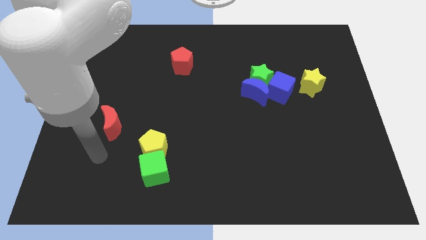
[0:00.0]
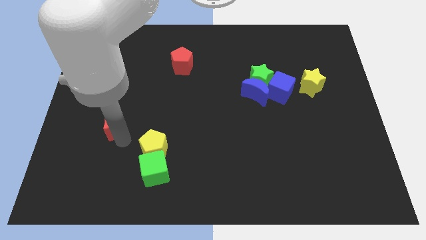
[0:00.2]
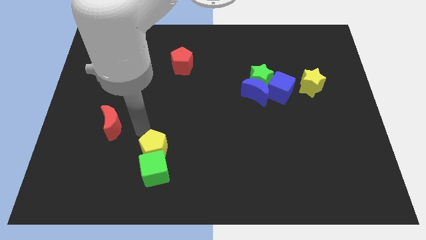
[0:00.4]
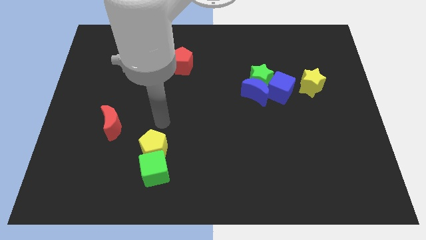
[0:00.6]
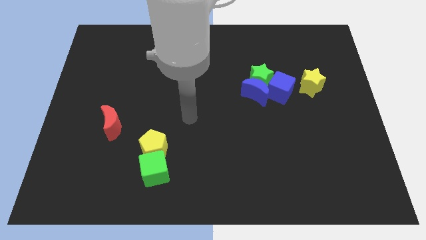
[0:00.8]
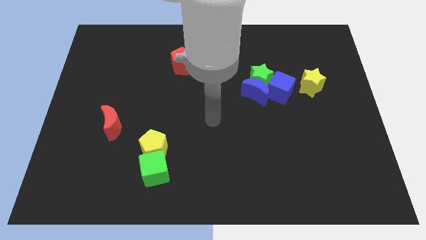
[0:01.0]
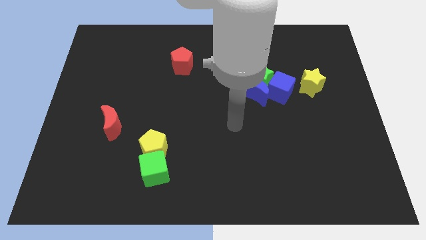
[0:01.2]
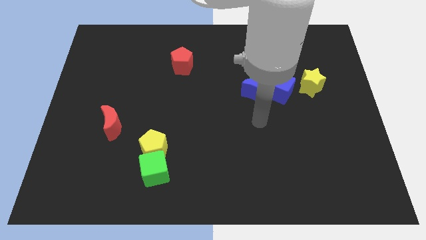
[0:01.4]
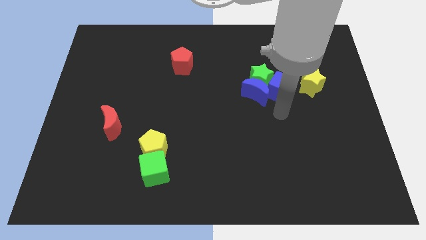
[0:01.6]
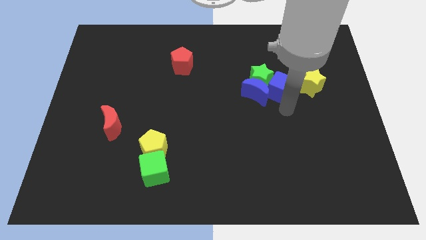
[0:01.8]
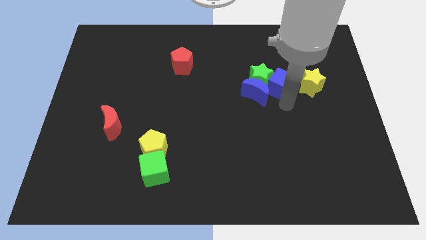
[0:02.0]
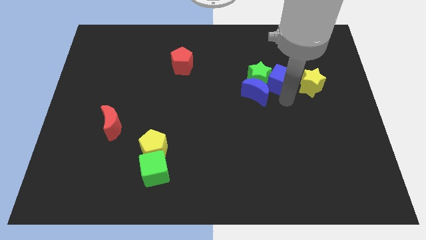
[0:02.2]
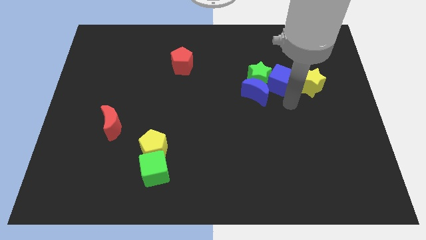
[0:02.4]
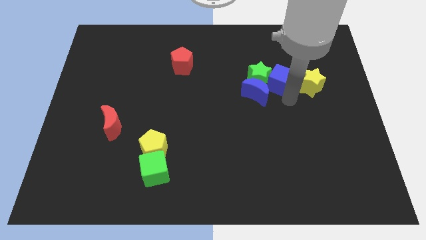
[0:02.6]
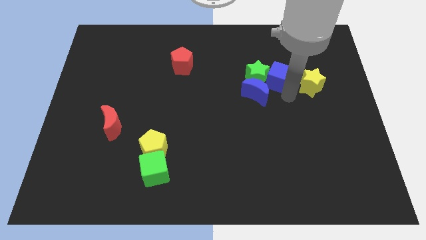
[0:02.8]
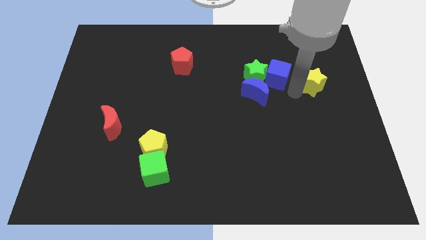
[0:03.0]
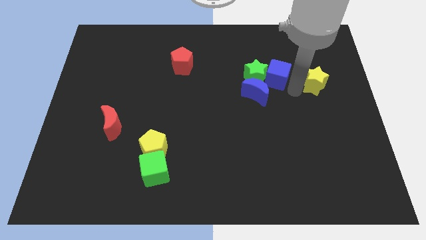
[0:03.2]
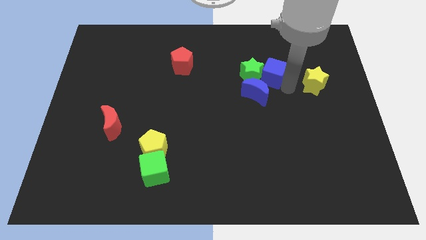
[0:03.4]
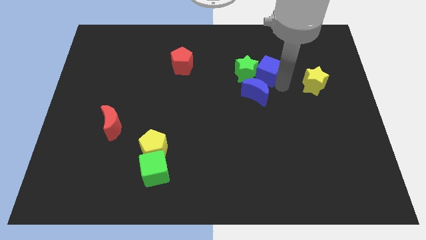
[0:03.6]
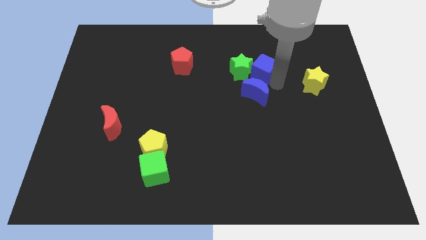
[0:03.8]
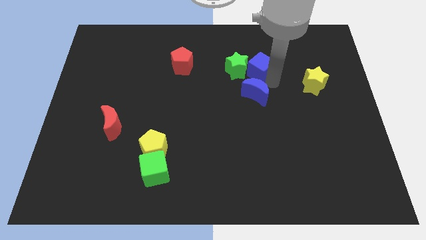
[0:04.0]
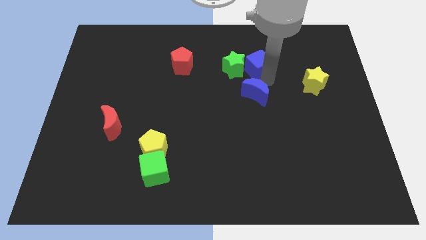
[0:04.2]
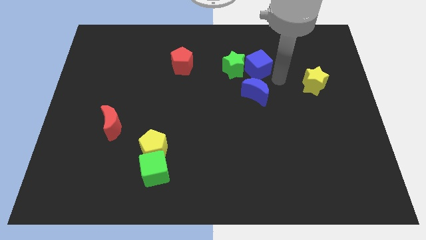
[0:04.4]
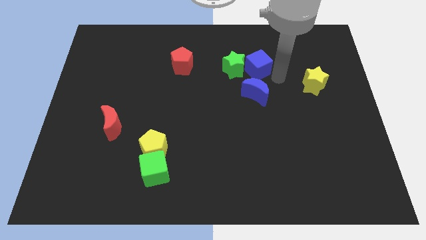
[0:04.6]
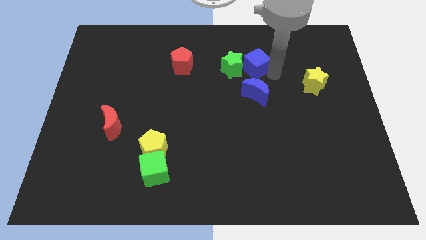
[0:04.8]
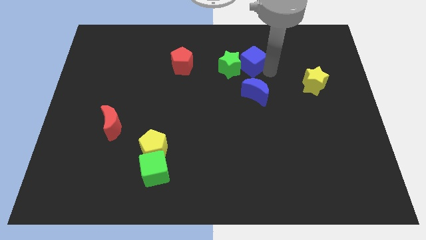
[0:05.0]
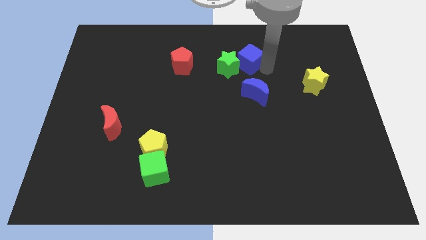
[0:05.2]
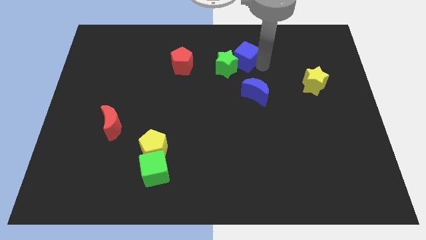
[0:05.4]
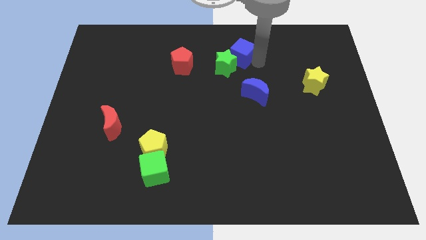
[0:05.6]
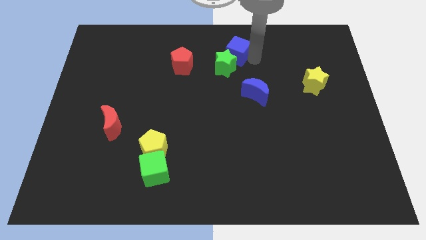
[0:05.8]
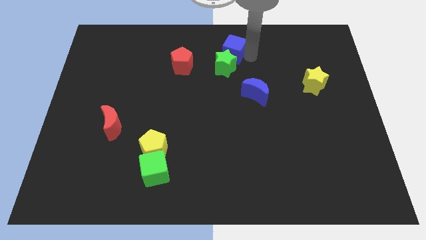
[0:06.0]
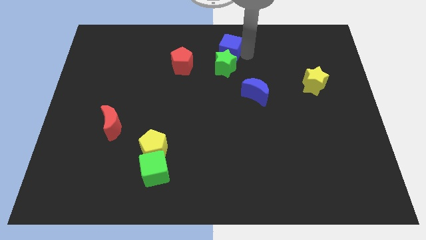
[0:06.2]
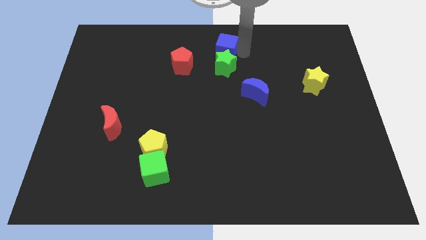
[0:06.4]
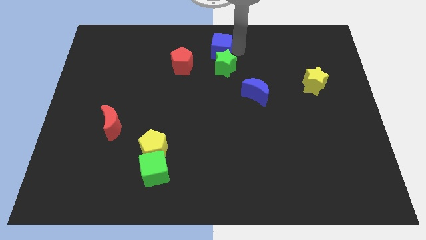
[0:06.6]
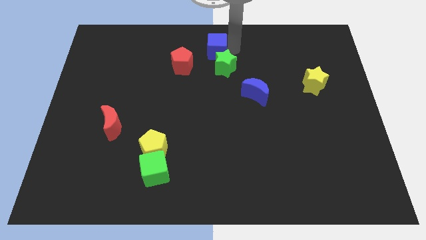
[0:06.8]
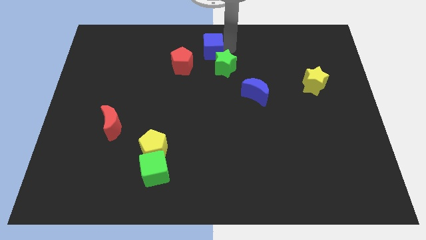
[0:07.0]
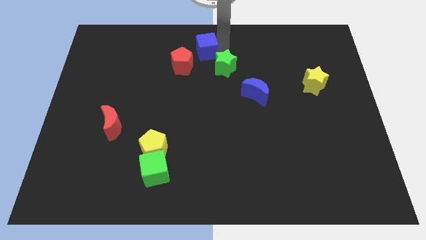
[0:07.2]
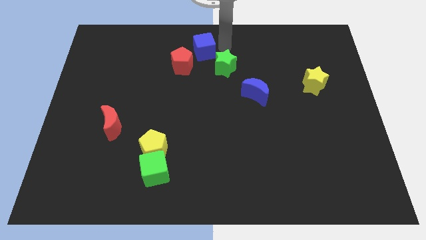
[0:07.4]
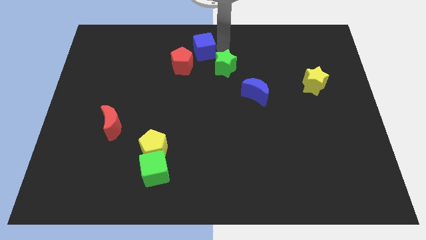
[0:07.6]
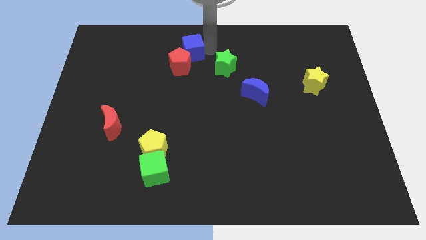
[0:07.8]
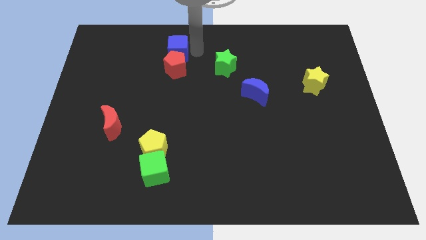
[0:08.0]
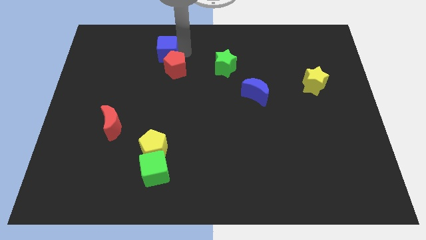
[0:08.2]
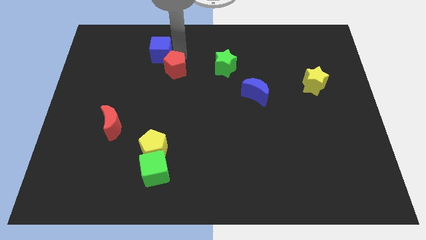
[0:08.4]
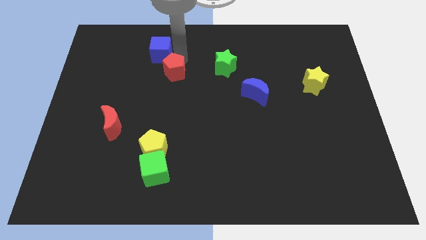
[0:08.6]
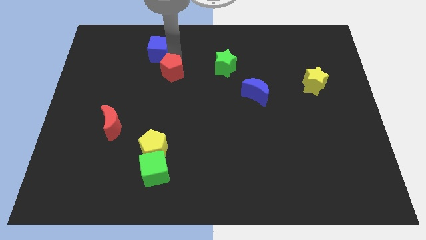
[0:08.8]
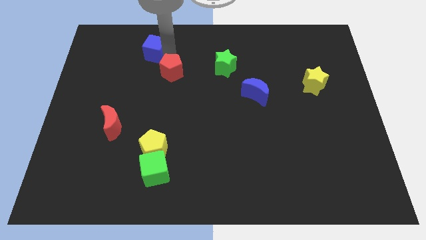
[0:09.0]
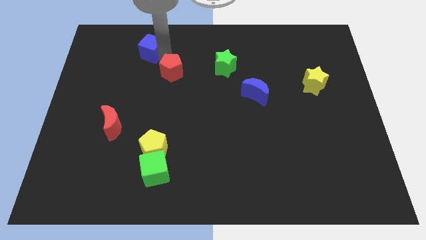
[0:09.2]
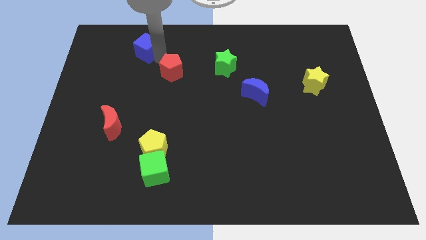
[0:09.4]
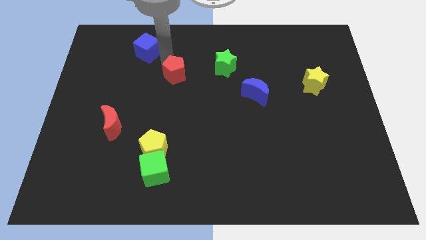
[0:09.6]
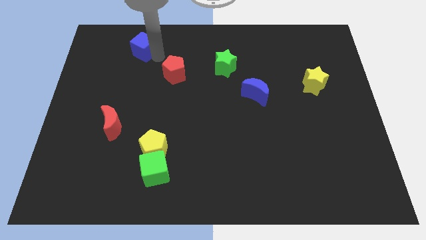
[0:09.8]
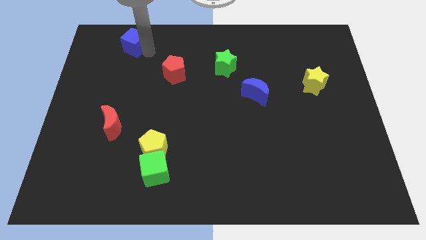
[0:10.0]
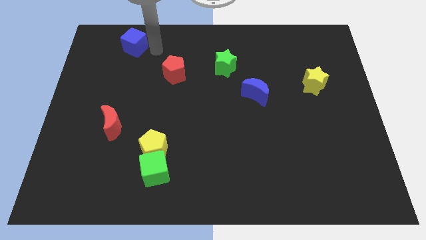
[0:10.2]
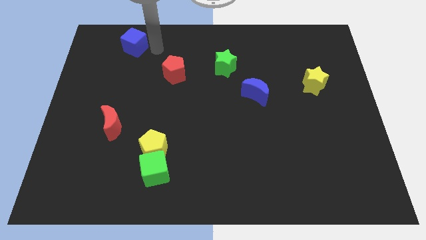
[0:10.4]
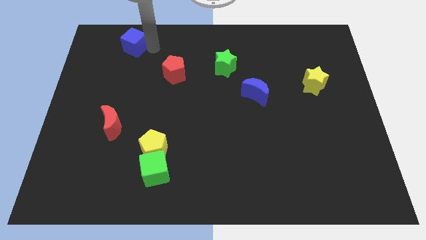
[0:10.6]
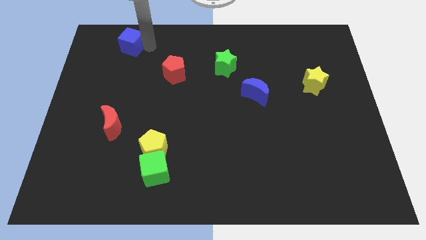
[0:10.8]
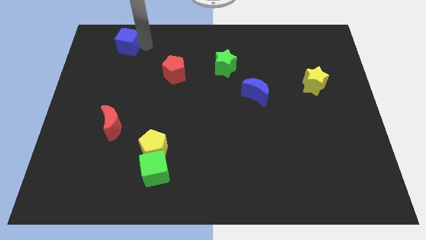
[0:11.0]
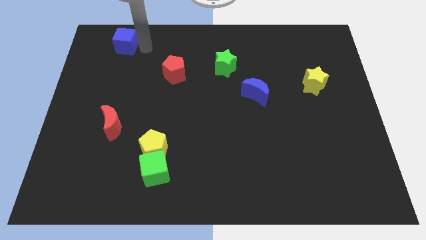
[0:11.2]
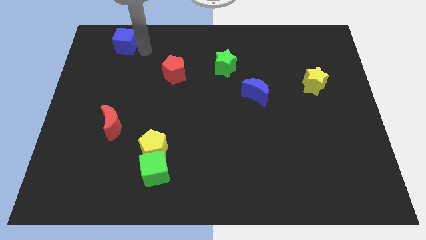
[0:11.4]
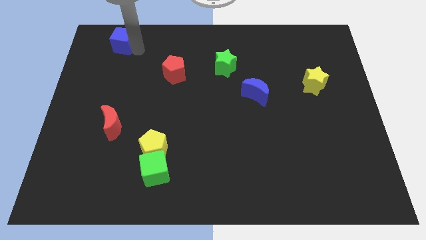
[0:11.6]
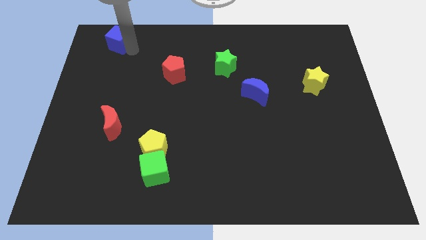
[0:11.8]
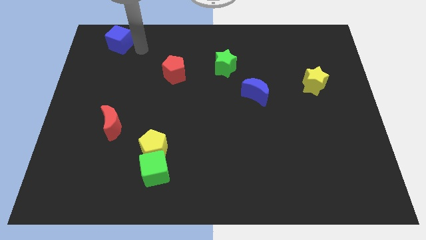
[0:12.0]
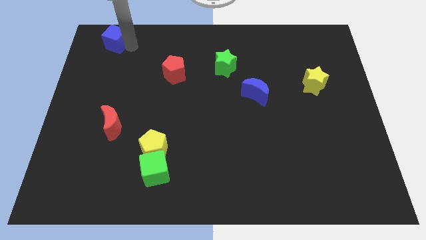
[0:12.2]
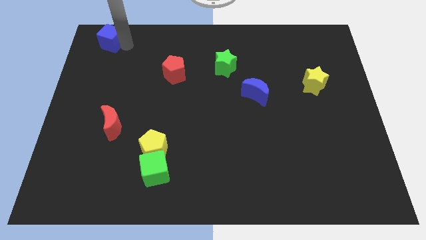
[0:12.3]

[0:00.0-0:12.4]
slide the blue cube to the top left corner
